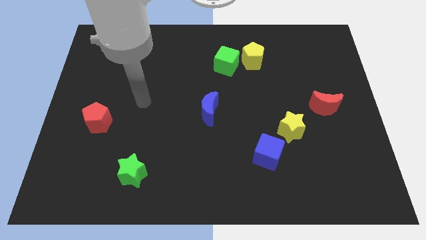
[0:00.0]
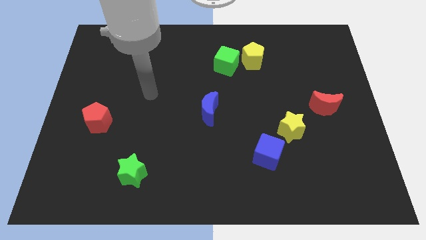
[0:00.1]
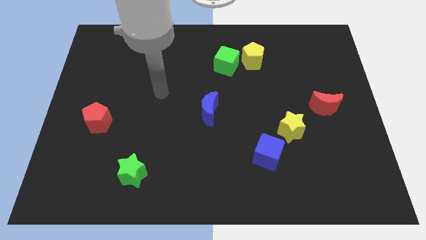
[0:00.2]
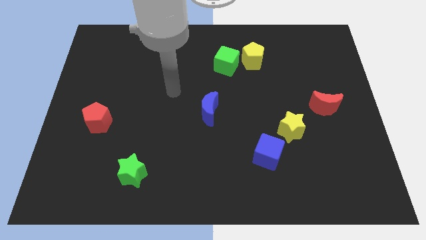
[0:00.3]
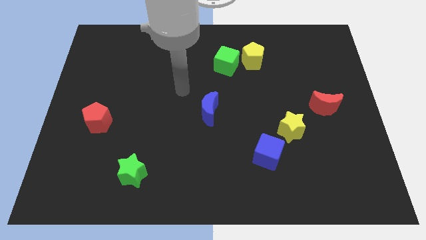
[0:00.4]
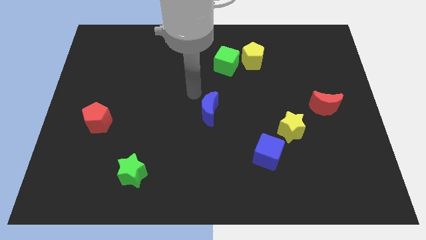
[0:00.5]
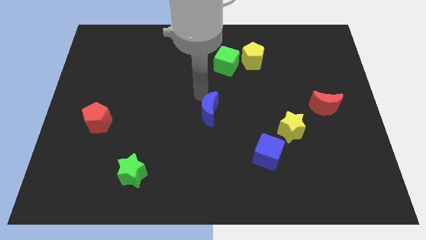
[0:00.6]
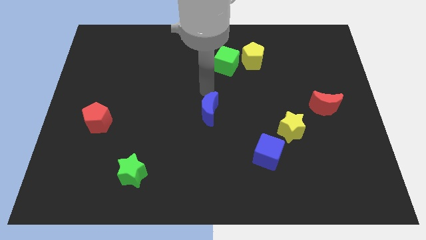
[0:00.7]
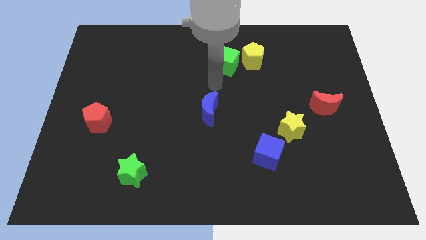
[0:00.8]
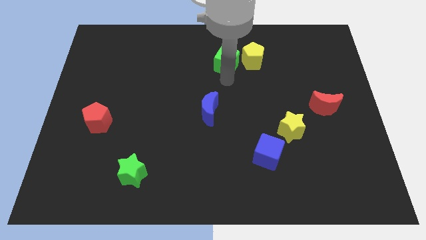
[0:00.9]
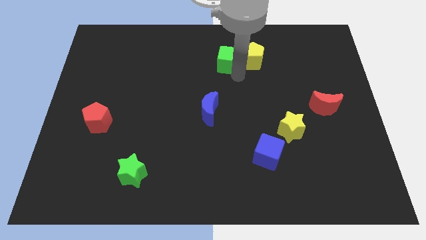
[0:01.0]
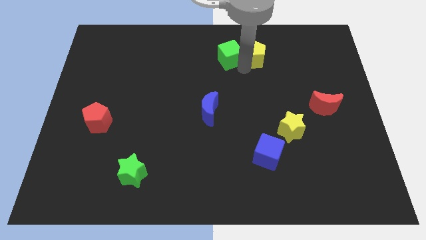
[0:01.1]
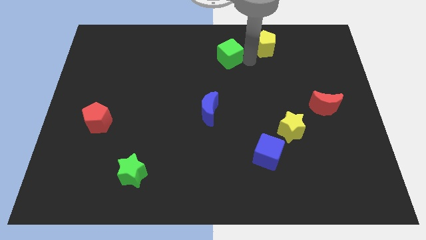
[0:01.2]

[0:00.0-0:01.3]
move the green cube away from the yellow pentagon

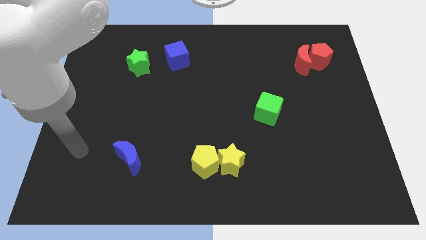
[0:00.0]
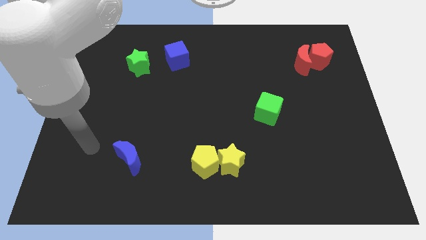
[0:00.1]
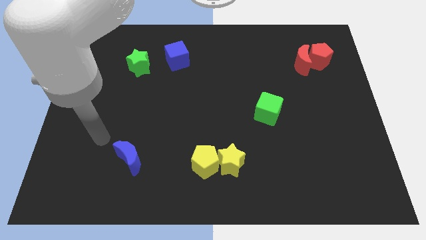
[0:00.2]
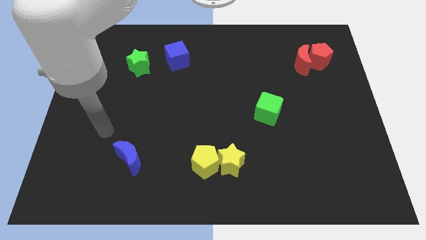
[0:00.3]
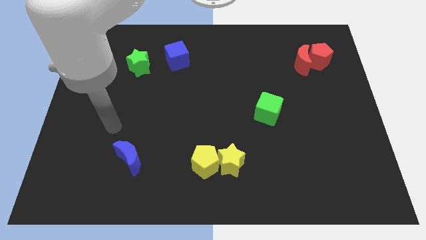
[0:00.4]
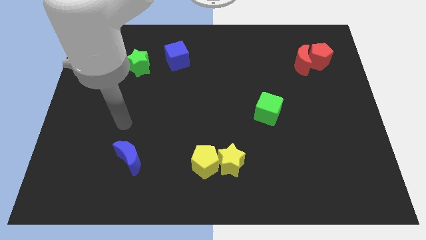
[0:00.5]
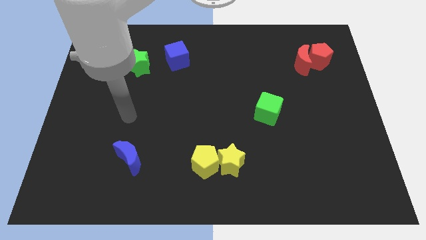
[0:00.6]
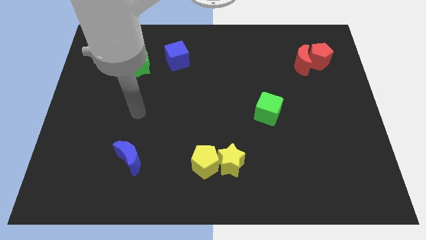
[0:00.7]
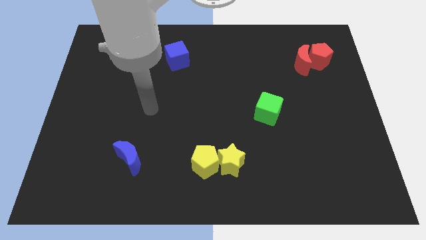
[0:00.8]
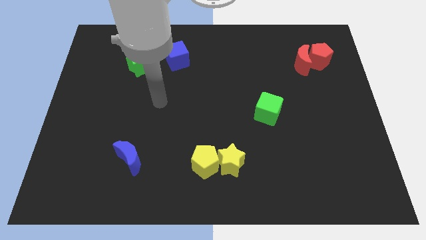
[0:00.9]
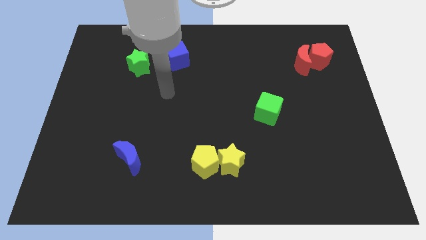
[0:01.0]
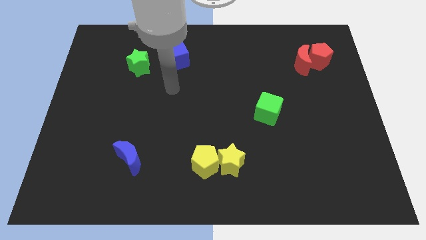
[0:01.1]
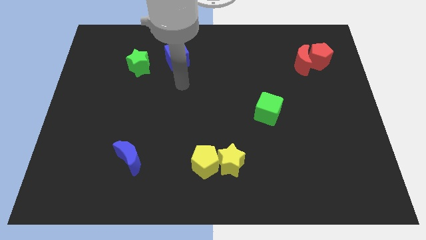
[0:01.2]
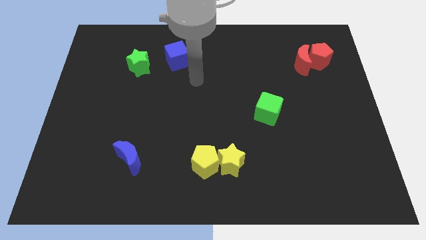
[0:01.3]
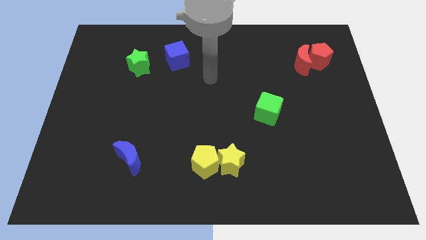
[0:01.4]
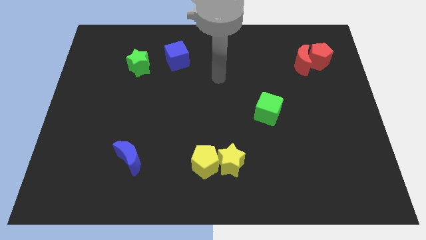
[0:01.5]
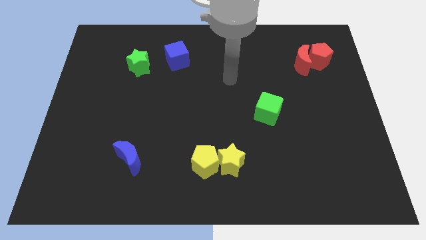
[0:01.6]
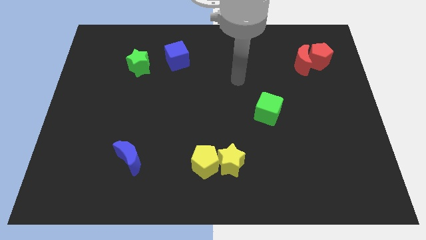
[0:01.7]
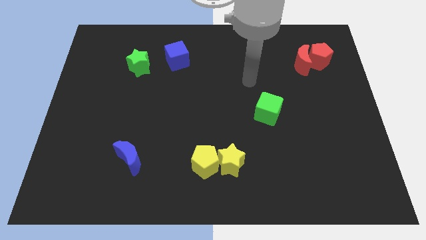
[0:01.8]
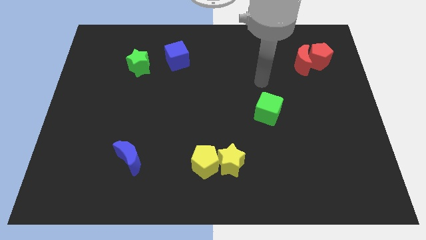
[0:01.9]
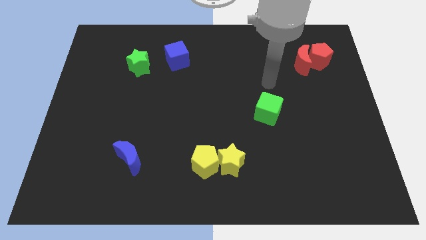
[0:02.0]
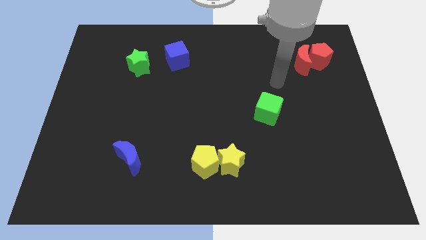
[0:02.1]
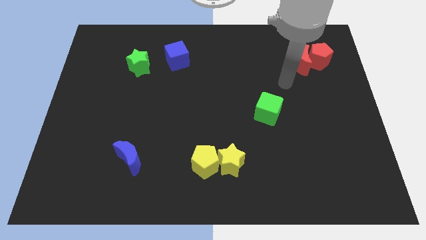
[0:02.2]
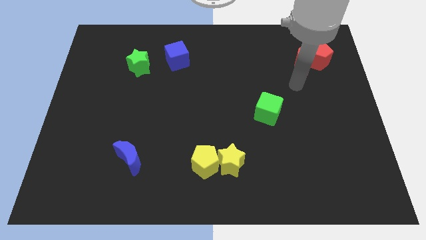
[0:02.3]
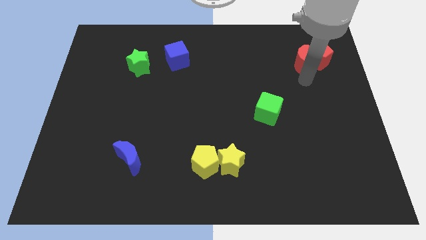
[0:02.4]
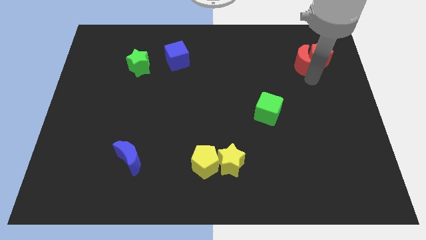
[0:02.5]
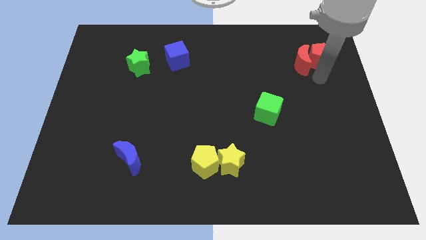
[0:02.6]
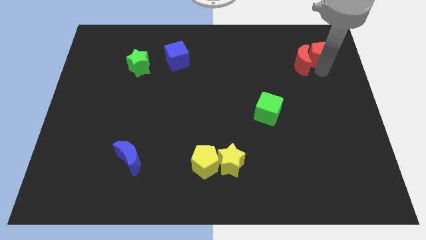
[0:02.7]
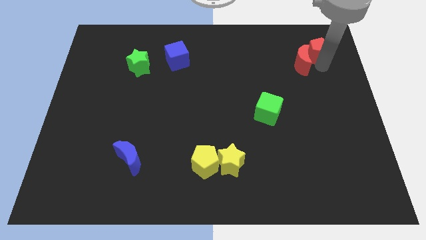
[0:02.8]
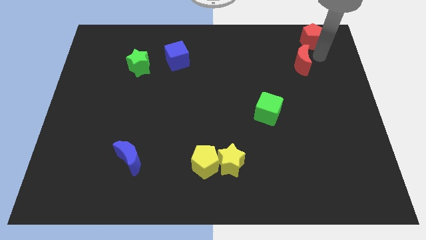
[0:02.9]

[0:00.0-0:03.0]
pull the red moon apart from the red pentagon

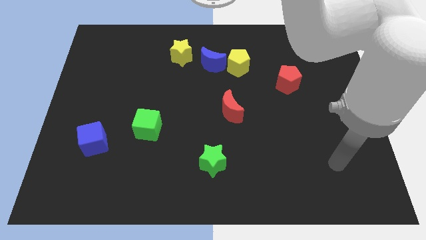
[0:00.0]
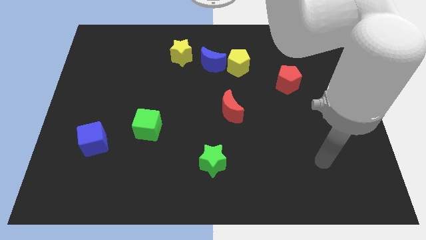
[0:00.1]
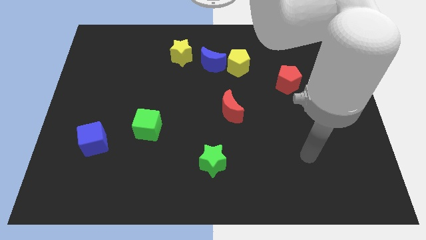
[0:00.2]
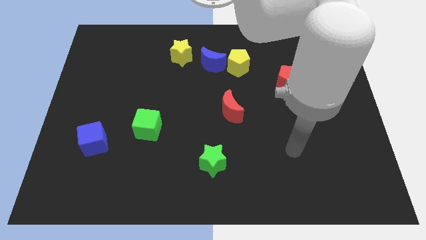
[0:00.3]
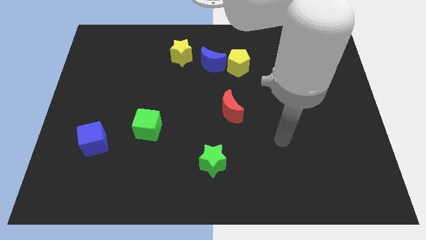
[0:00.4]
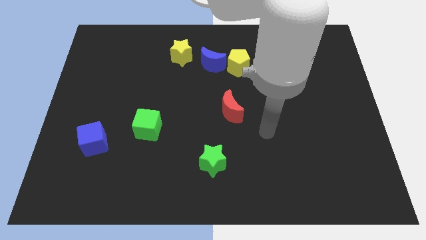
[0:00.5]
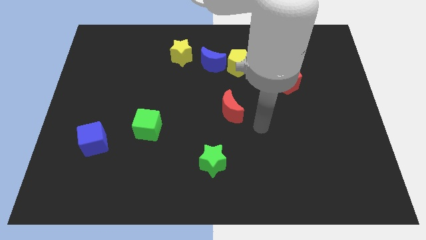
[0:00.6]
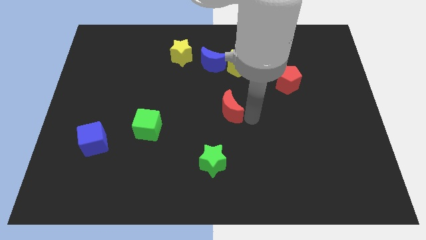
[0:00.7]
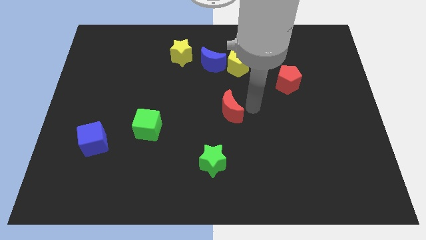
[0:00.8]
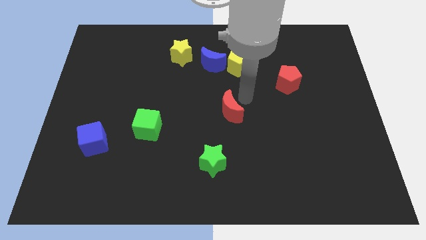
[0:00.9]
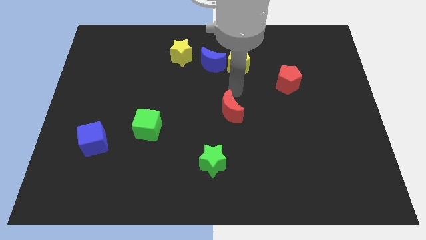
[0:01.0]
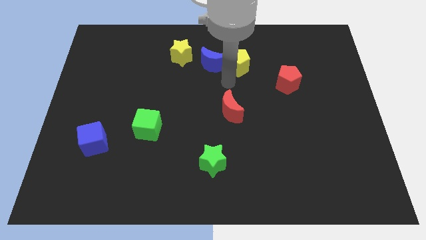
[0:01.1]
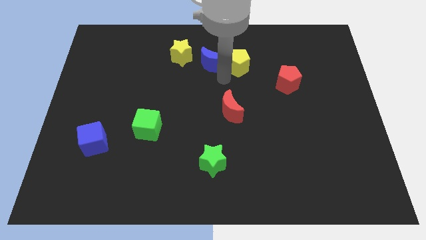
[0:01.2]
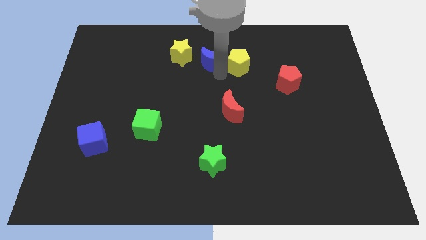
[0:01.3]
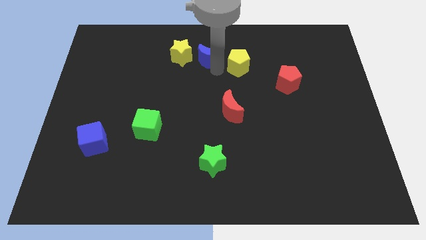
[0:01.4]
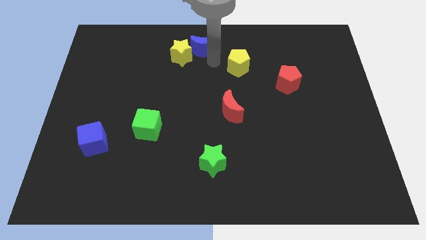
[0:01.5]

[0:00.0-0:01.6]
pull the yellow pentagon apart from the blue moon

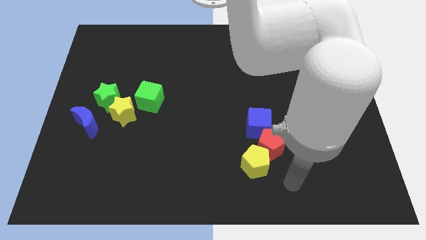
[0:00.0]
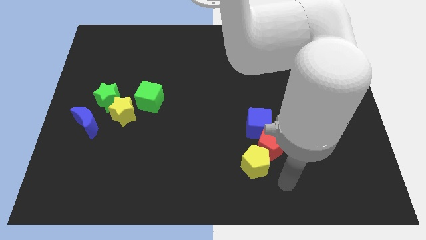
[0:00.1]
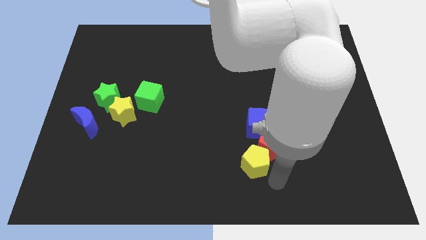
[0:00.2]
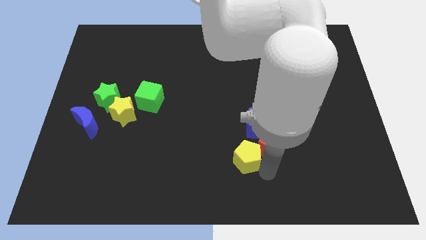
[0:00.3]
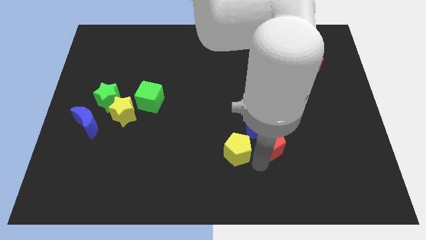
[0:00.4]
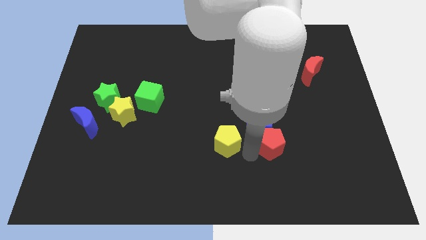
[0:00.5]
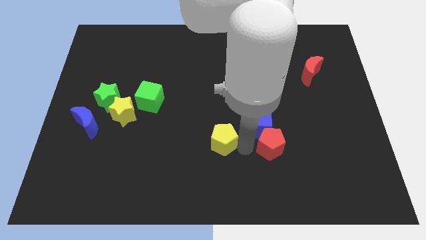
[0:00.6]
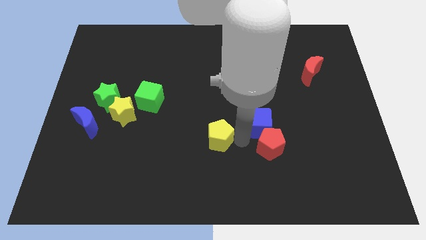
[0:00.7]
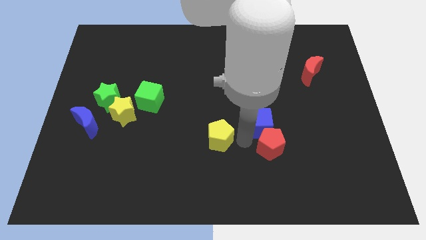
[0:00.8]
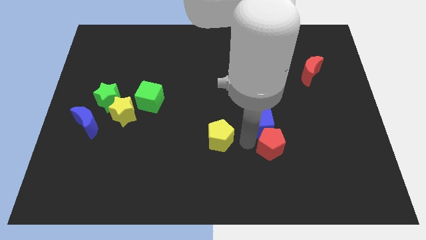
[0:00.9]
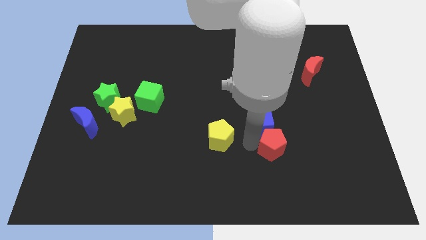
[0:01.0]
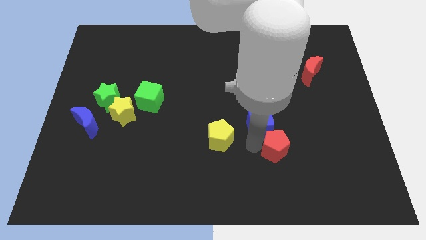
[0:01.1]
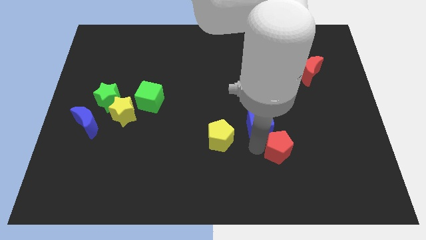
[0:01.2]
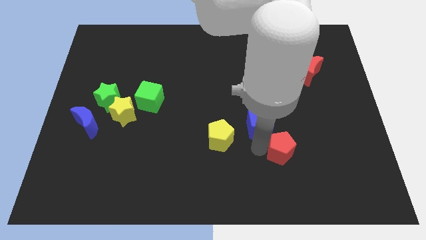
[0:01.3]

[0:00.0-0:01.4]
move the red pentagon away from the yellow pentagon and blue cube

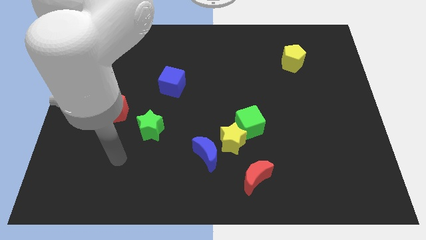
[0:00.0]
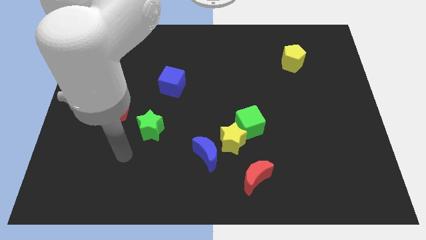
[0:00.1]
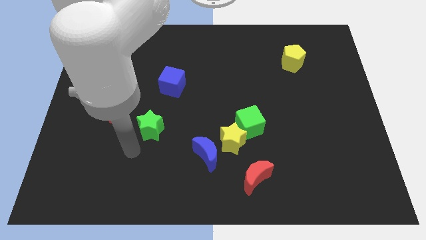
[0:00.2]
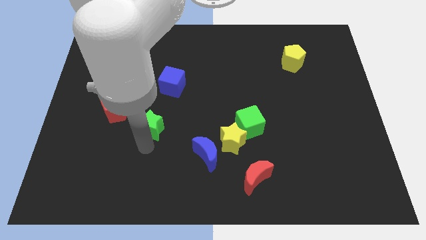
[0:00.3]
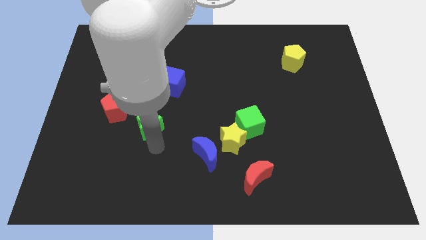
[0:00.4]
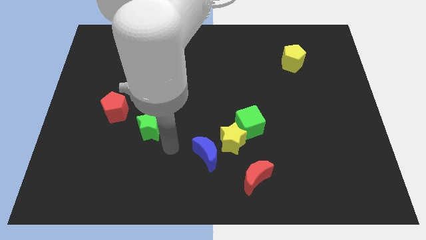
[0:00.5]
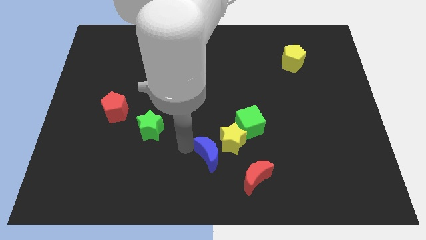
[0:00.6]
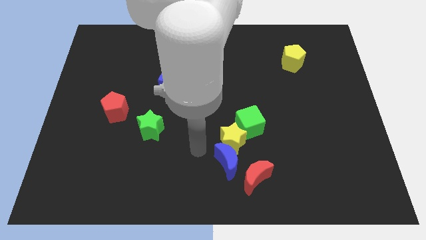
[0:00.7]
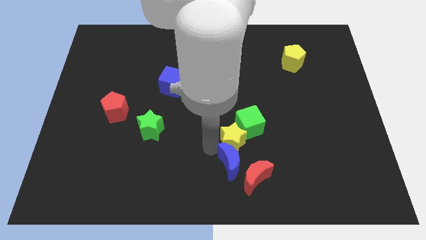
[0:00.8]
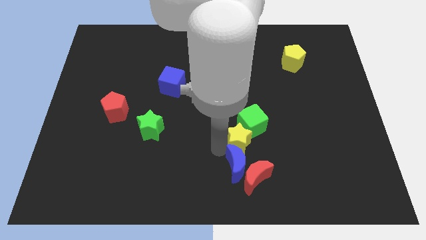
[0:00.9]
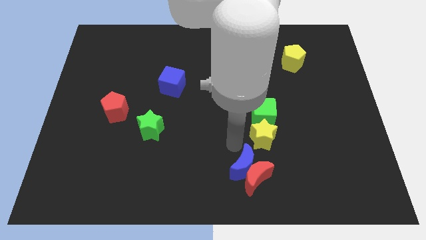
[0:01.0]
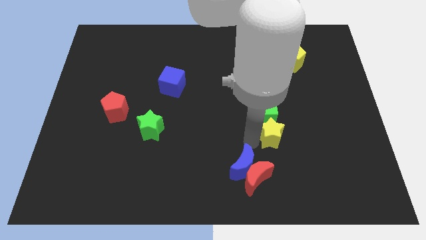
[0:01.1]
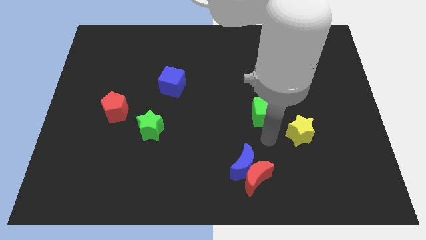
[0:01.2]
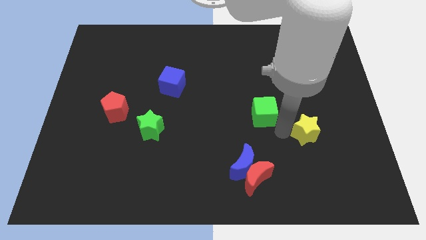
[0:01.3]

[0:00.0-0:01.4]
pull the green cube apart from the yellow star

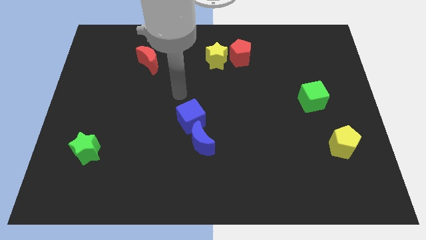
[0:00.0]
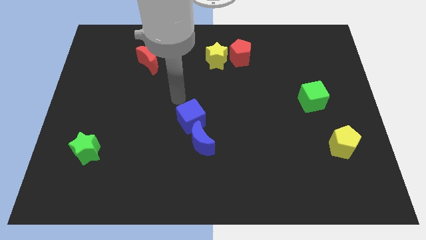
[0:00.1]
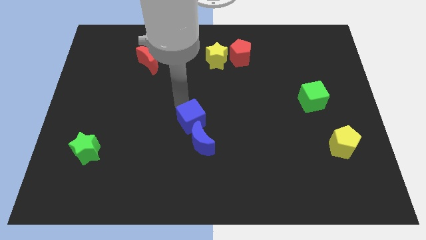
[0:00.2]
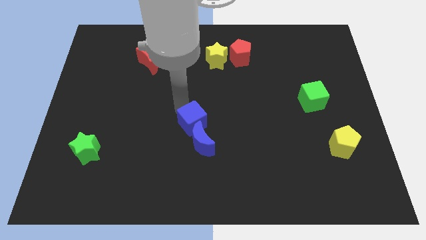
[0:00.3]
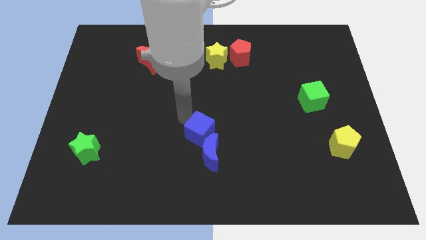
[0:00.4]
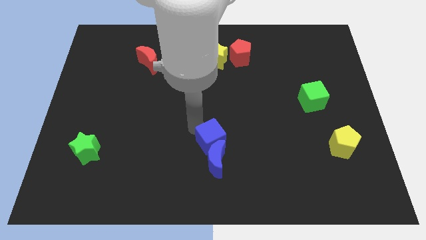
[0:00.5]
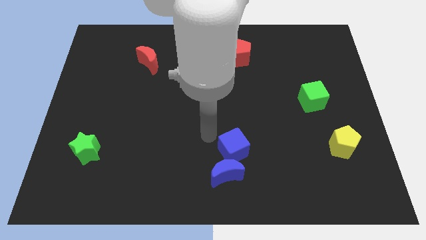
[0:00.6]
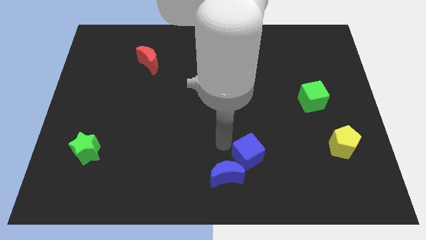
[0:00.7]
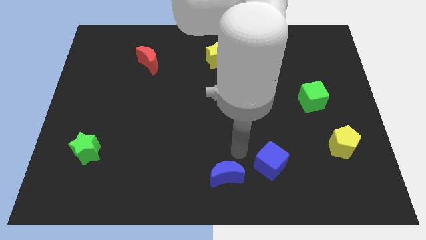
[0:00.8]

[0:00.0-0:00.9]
separate the blue moon from the blue cube
